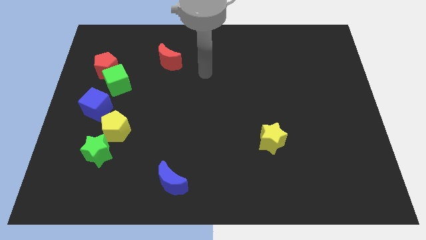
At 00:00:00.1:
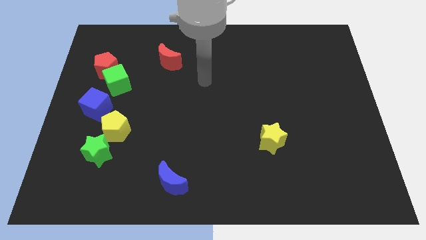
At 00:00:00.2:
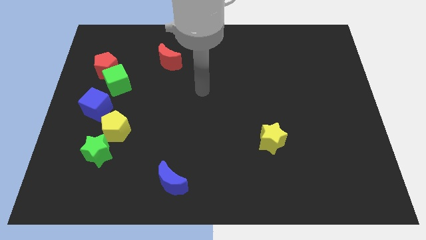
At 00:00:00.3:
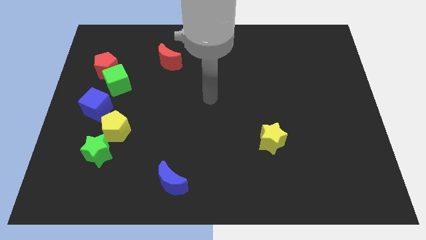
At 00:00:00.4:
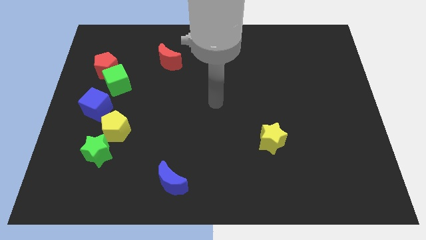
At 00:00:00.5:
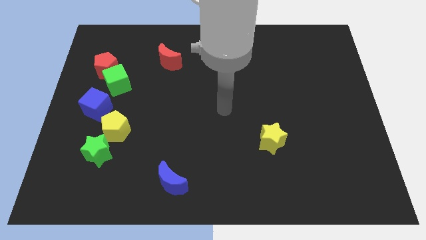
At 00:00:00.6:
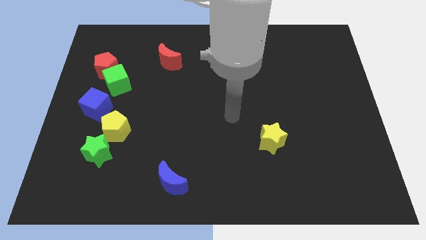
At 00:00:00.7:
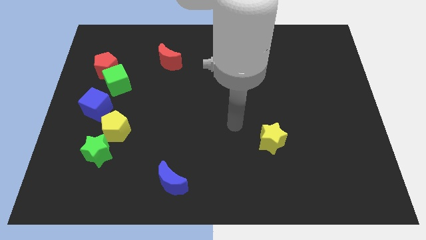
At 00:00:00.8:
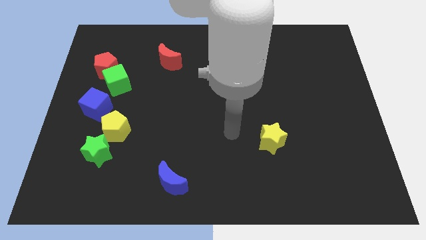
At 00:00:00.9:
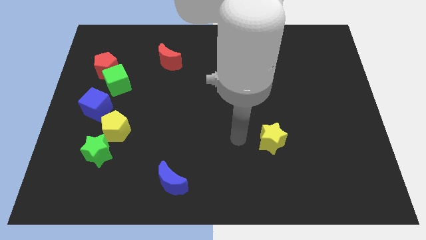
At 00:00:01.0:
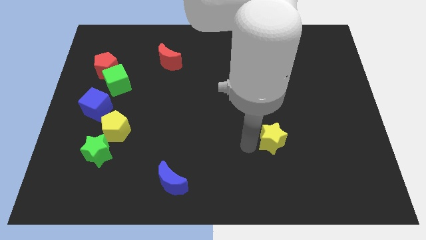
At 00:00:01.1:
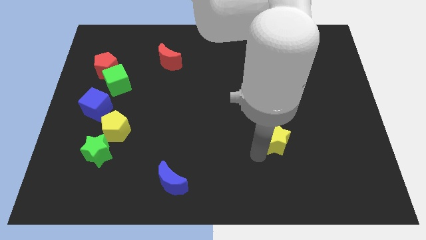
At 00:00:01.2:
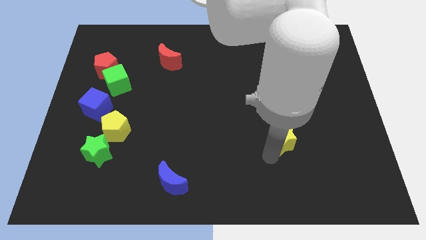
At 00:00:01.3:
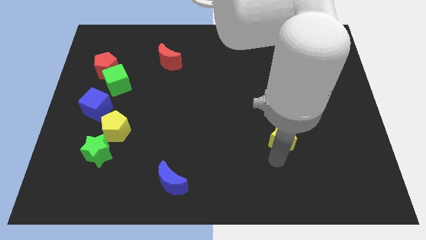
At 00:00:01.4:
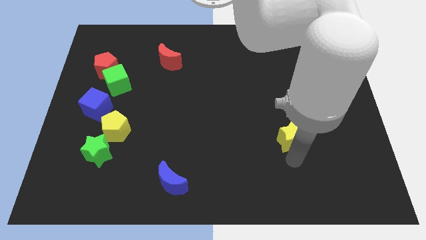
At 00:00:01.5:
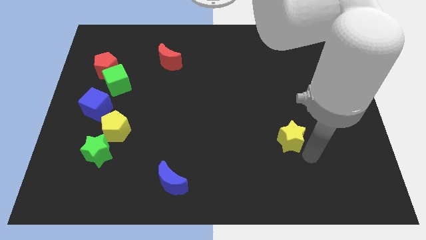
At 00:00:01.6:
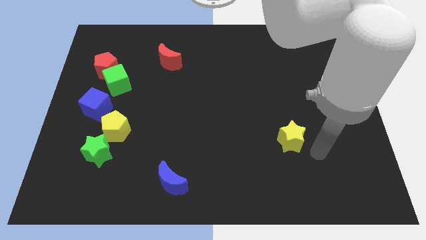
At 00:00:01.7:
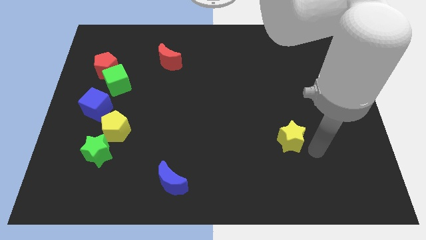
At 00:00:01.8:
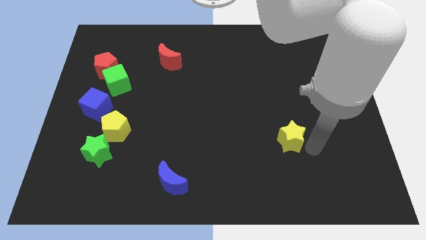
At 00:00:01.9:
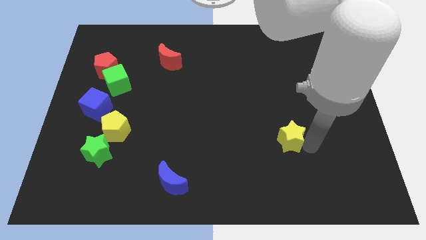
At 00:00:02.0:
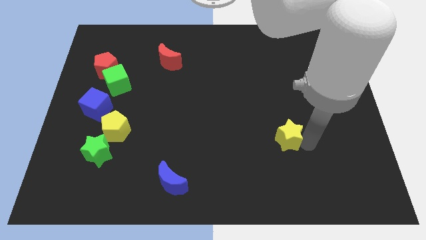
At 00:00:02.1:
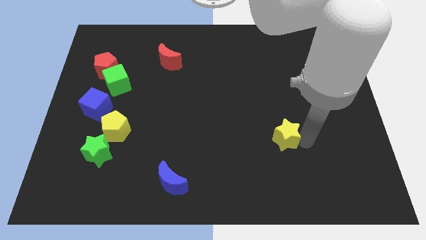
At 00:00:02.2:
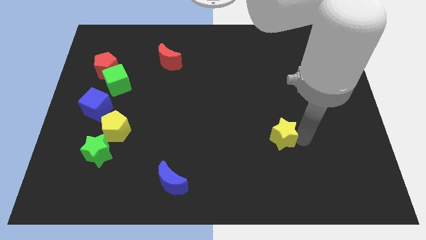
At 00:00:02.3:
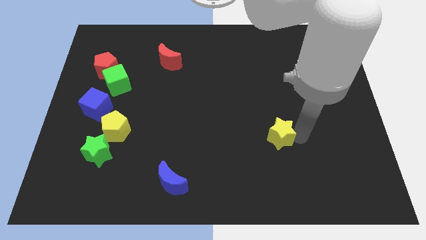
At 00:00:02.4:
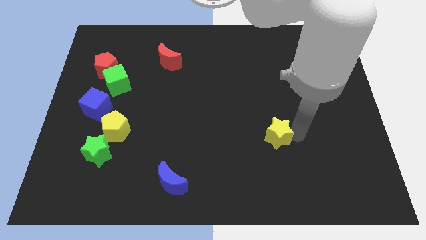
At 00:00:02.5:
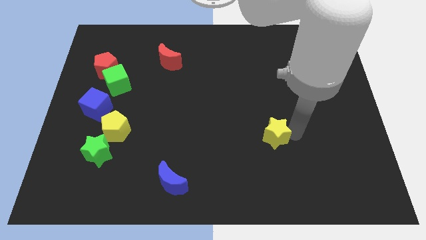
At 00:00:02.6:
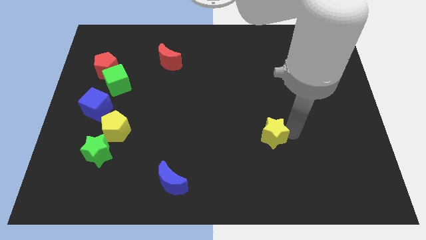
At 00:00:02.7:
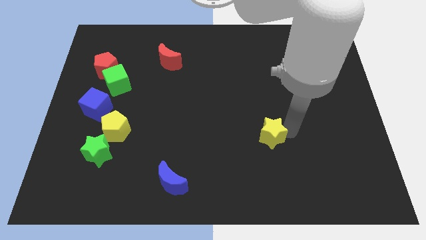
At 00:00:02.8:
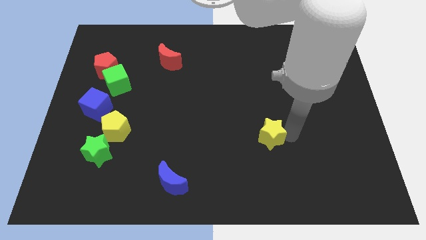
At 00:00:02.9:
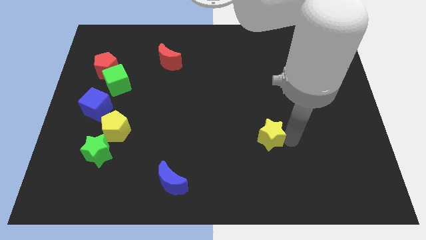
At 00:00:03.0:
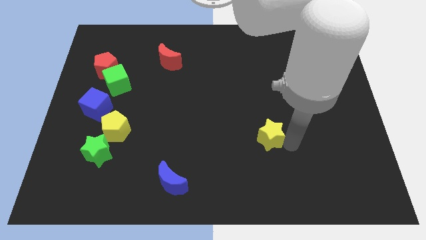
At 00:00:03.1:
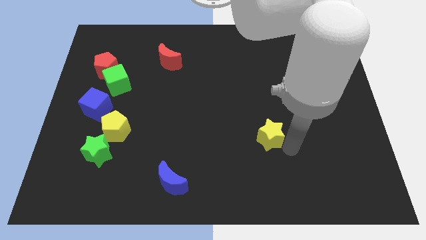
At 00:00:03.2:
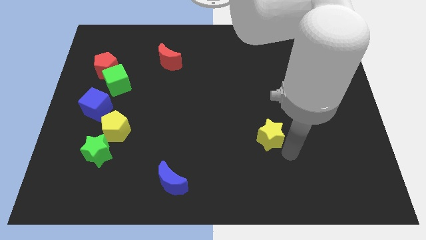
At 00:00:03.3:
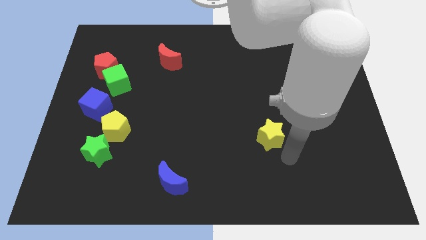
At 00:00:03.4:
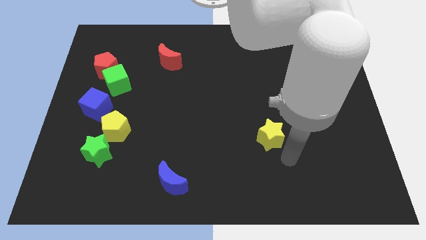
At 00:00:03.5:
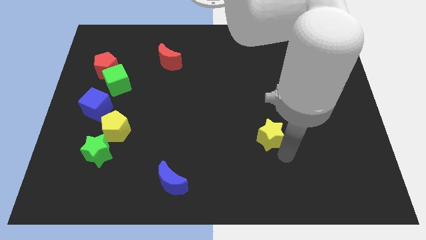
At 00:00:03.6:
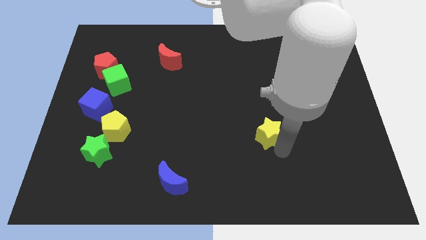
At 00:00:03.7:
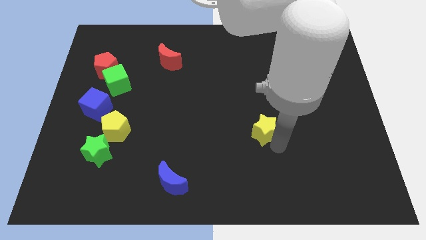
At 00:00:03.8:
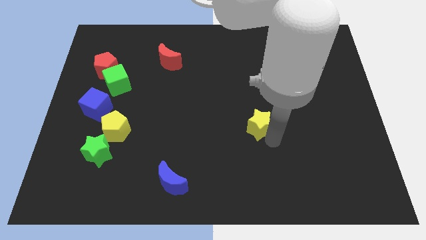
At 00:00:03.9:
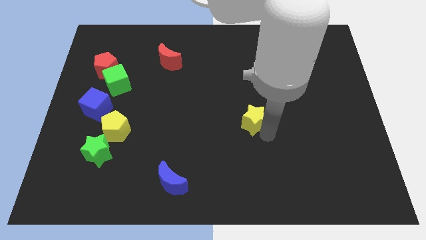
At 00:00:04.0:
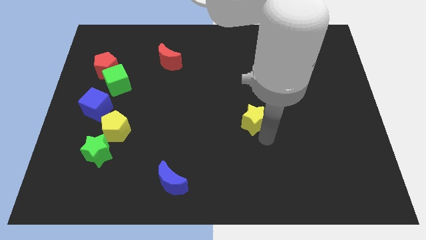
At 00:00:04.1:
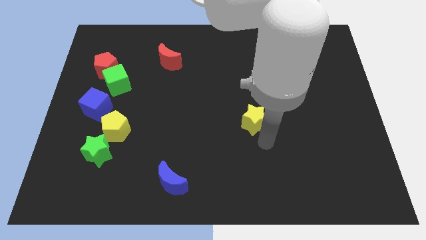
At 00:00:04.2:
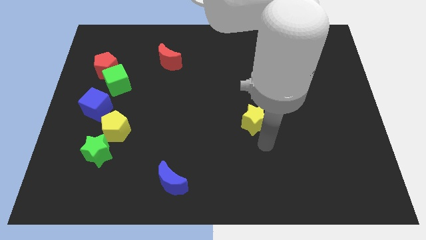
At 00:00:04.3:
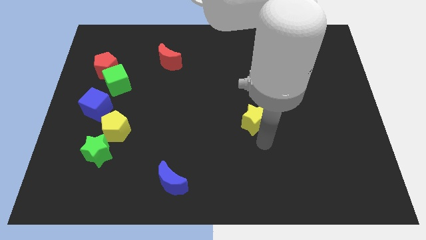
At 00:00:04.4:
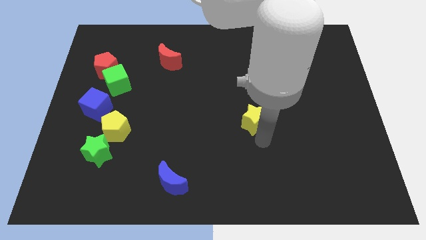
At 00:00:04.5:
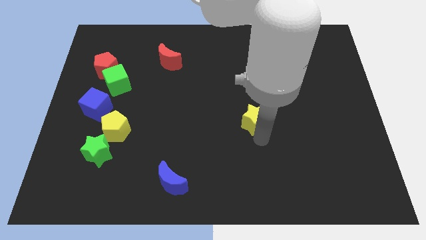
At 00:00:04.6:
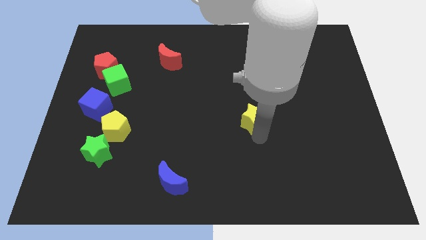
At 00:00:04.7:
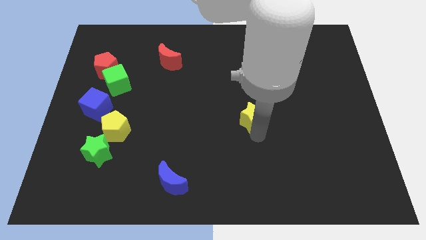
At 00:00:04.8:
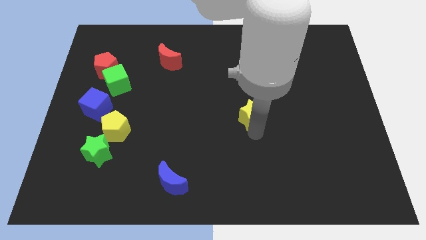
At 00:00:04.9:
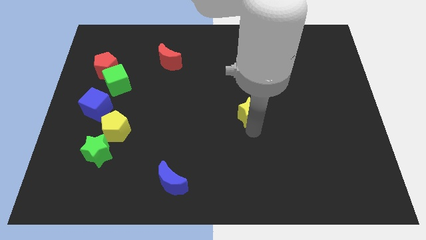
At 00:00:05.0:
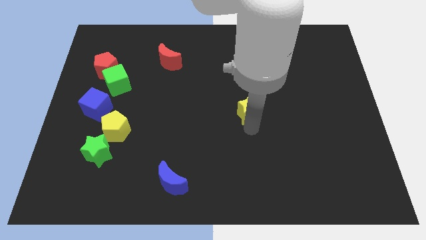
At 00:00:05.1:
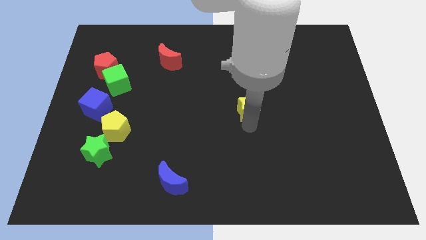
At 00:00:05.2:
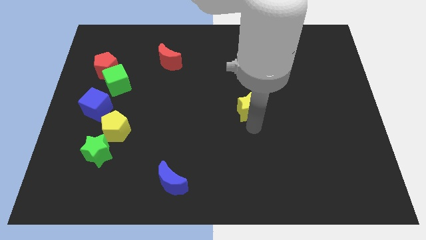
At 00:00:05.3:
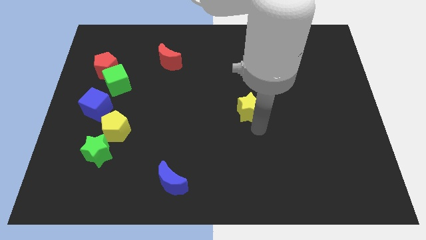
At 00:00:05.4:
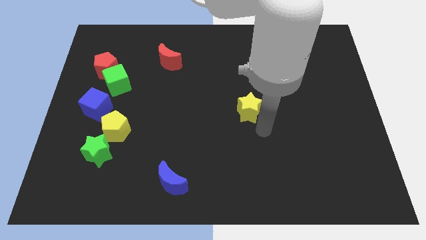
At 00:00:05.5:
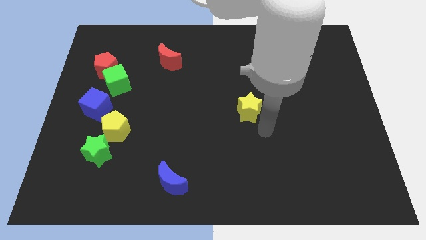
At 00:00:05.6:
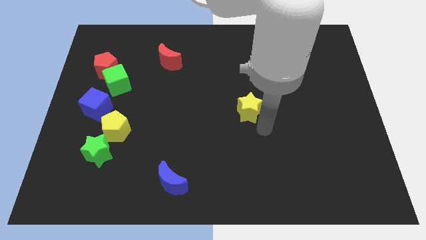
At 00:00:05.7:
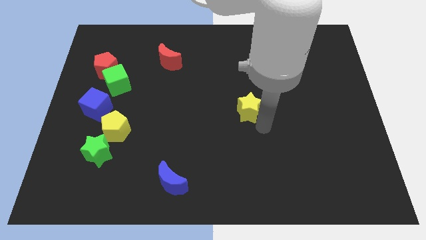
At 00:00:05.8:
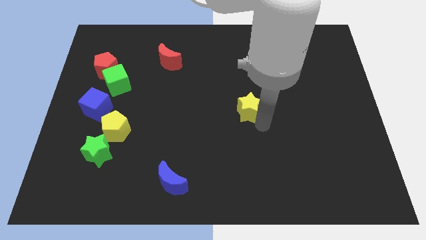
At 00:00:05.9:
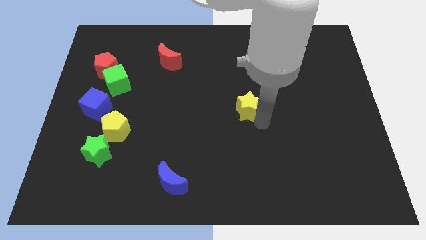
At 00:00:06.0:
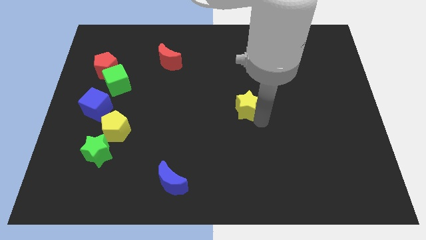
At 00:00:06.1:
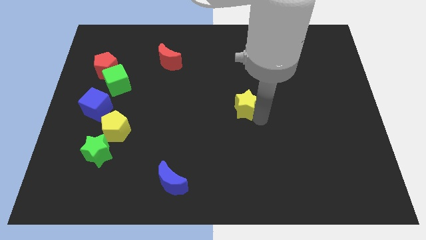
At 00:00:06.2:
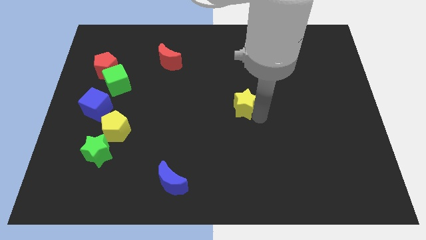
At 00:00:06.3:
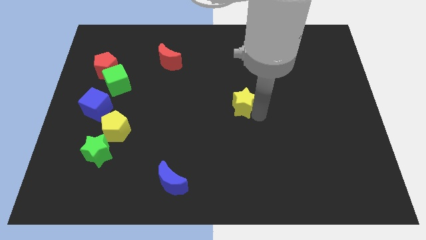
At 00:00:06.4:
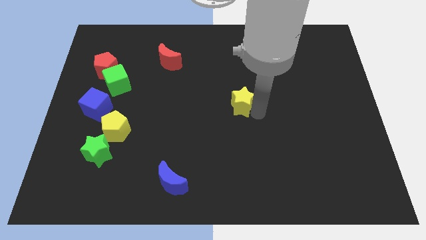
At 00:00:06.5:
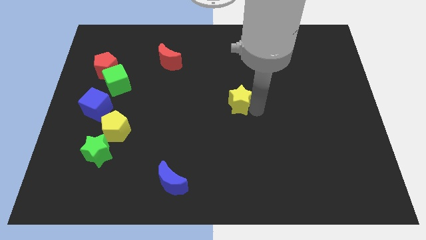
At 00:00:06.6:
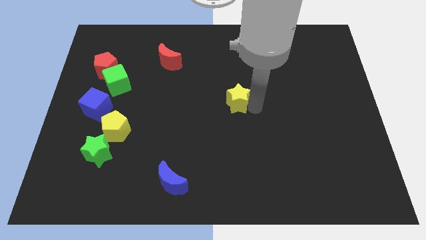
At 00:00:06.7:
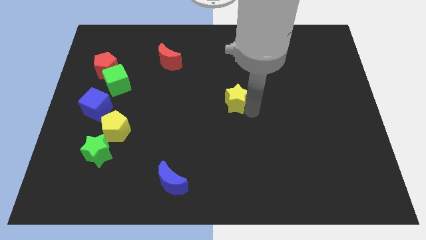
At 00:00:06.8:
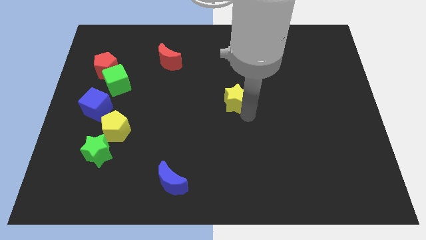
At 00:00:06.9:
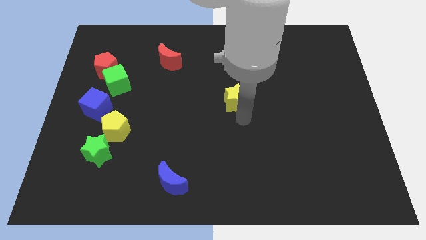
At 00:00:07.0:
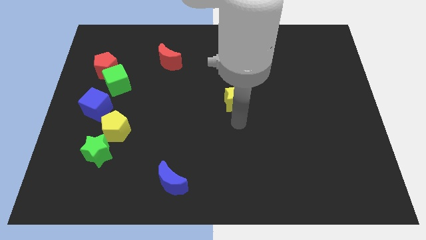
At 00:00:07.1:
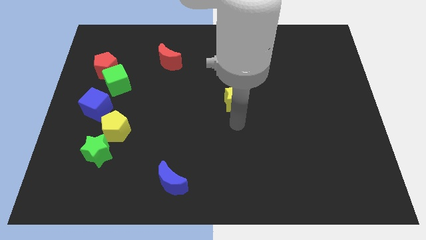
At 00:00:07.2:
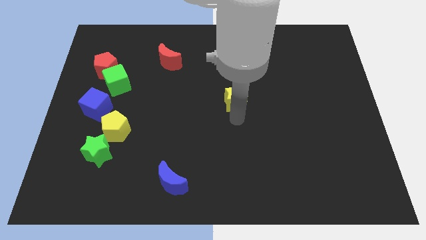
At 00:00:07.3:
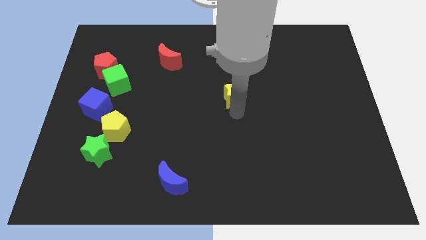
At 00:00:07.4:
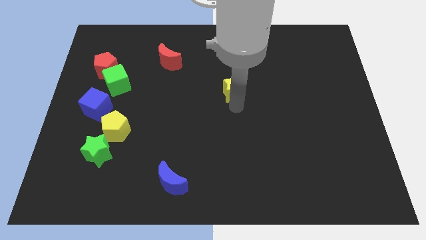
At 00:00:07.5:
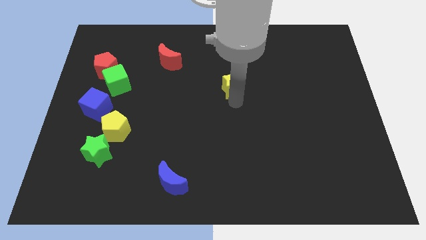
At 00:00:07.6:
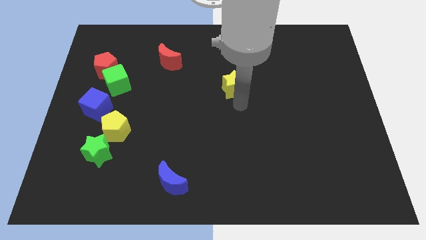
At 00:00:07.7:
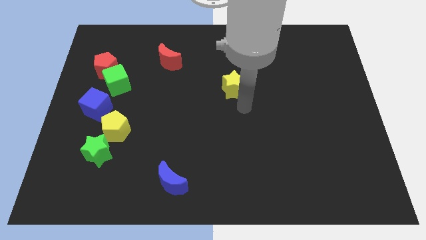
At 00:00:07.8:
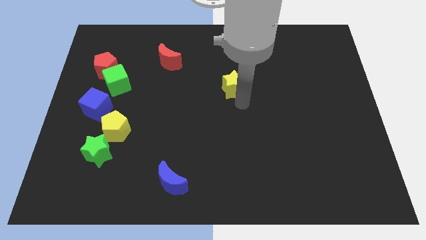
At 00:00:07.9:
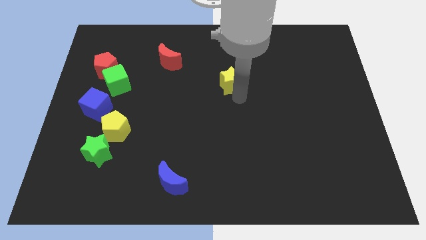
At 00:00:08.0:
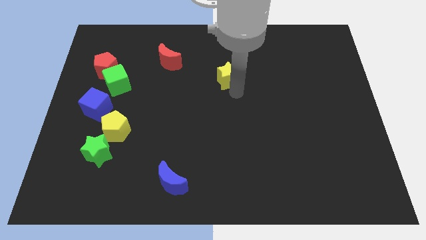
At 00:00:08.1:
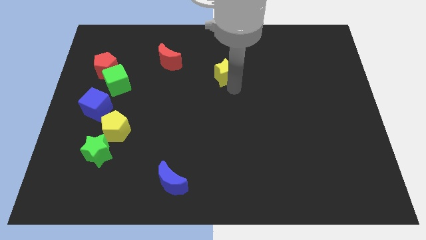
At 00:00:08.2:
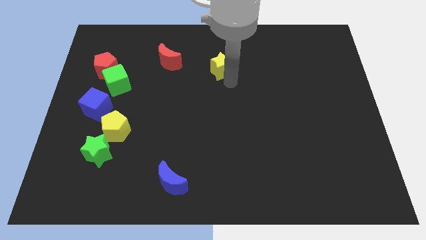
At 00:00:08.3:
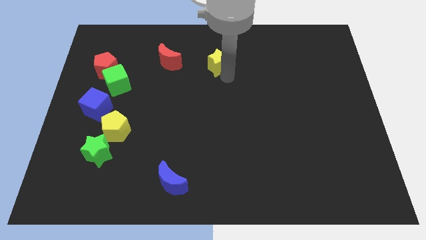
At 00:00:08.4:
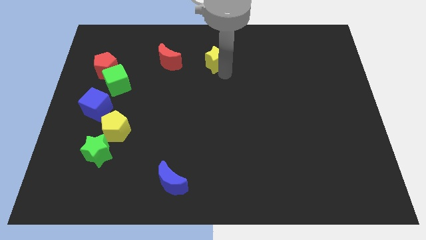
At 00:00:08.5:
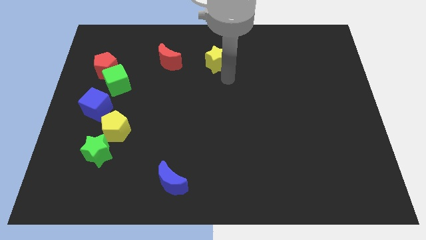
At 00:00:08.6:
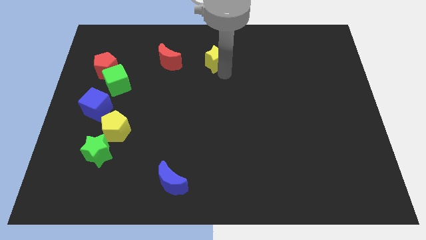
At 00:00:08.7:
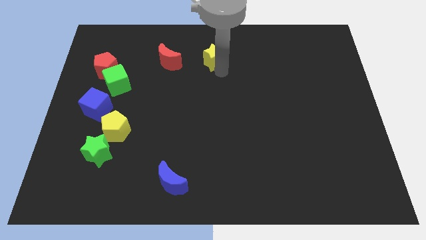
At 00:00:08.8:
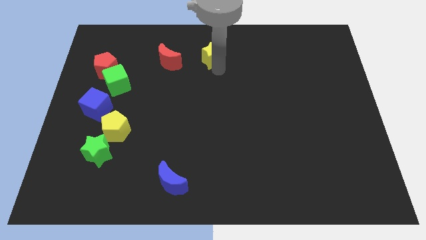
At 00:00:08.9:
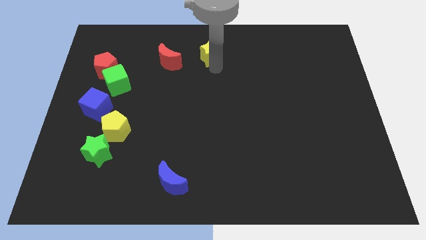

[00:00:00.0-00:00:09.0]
put the yellow star to the towards your base
